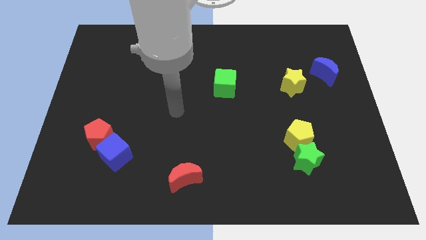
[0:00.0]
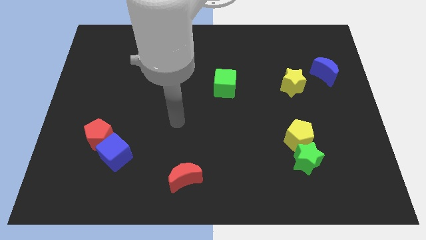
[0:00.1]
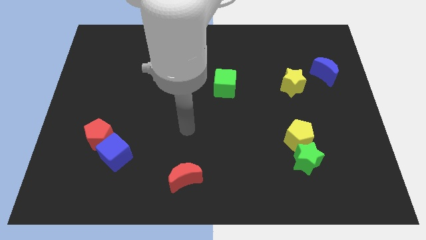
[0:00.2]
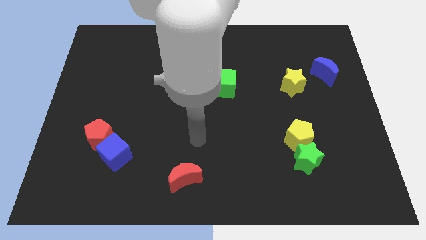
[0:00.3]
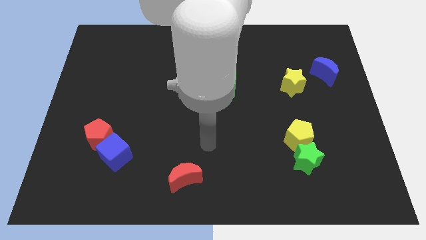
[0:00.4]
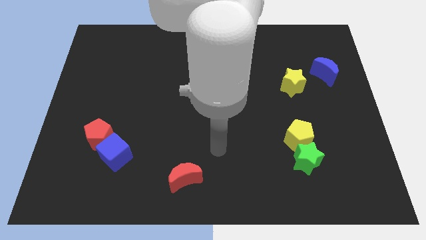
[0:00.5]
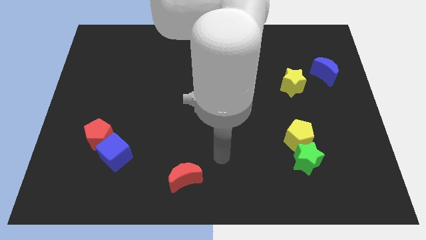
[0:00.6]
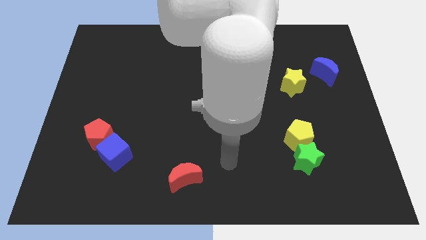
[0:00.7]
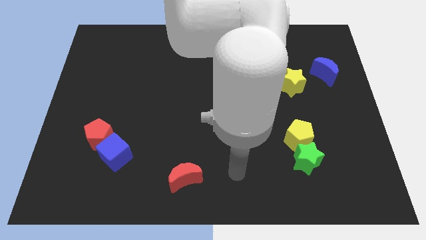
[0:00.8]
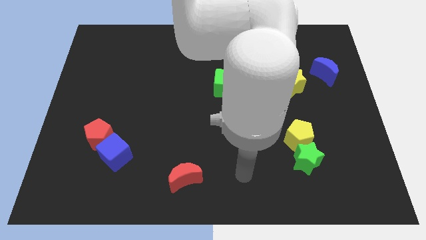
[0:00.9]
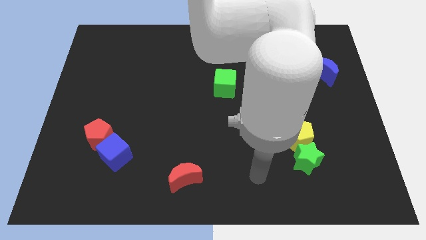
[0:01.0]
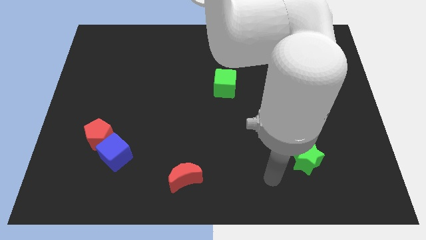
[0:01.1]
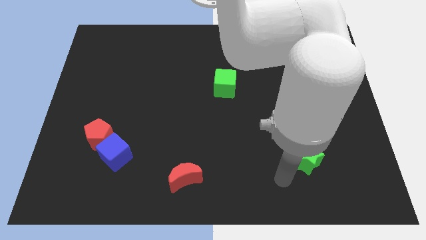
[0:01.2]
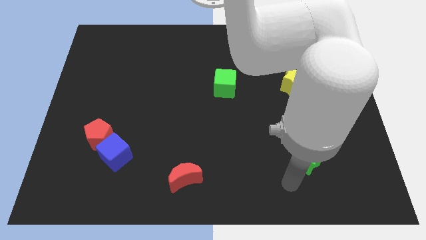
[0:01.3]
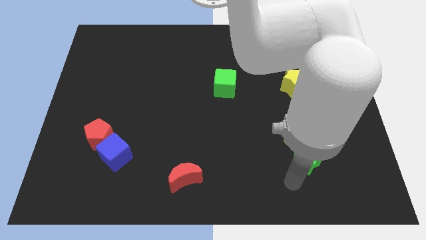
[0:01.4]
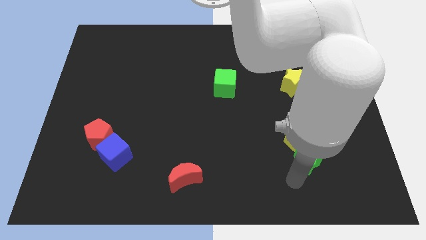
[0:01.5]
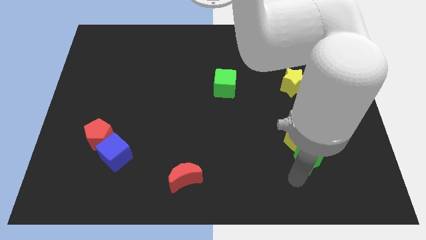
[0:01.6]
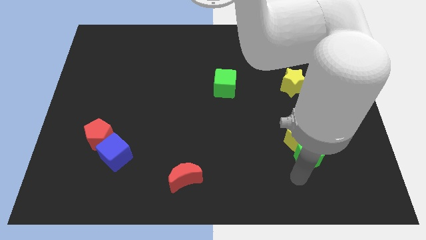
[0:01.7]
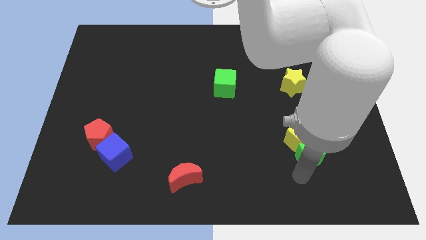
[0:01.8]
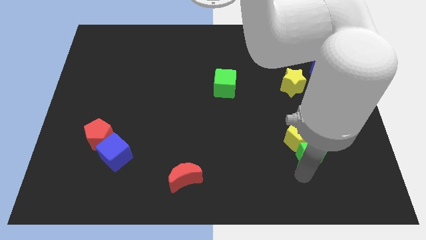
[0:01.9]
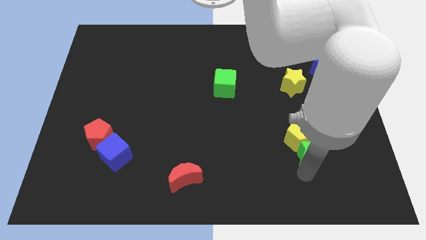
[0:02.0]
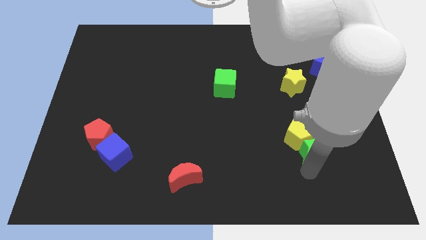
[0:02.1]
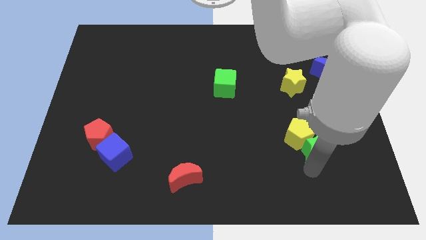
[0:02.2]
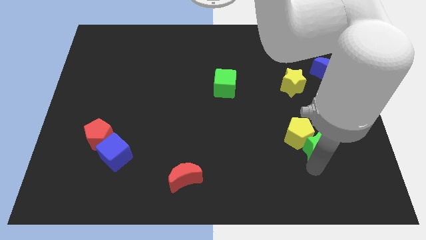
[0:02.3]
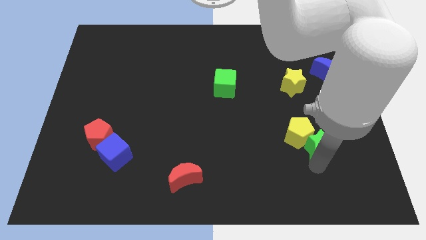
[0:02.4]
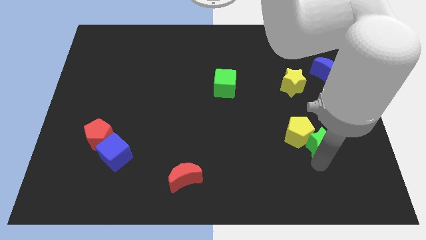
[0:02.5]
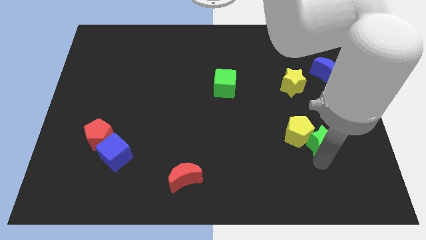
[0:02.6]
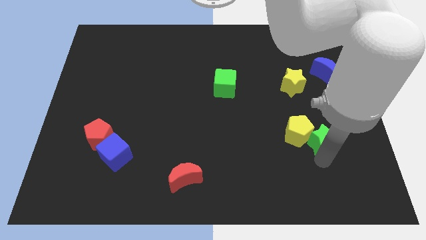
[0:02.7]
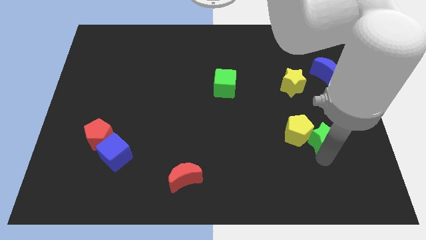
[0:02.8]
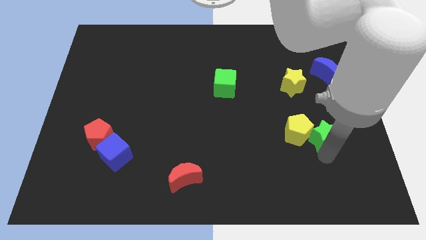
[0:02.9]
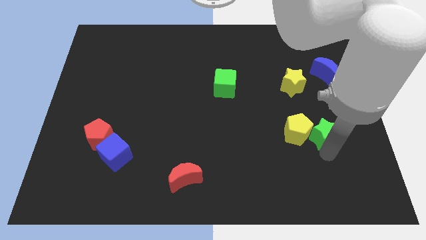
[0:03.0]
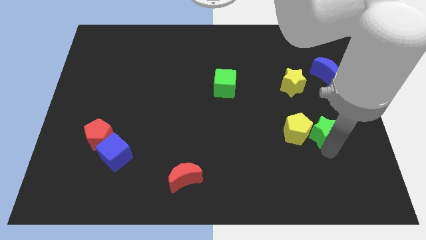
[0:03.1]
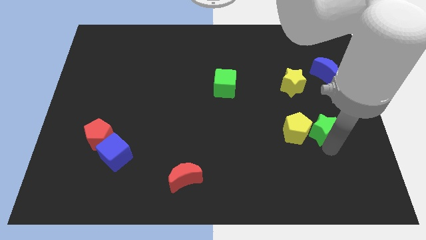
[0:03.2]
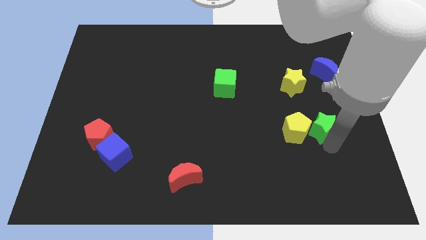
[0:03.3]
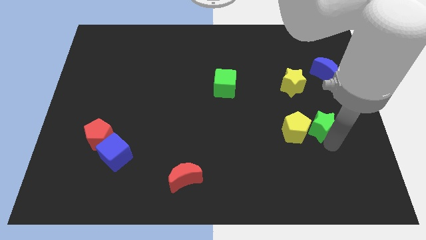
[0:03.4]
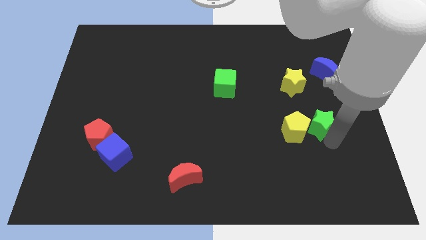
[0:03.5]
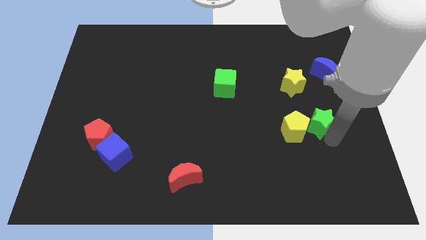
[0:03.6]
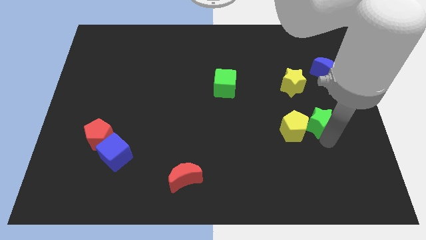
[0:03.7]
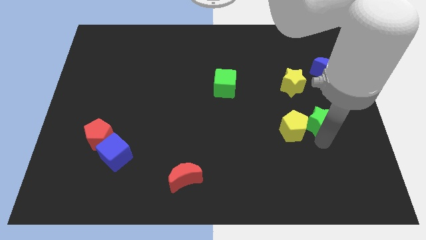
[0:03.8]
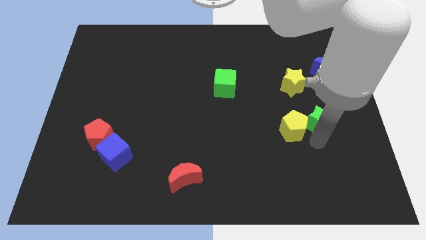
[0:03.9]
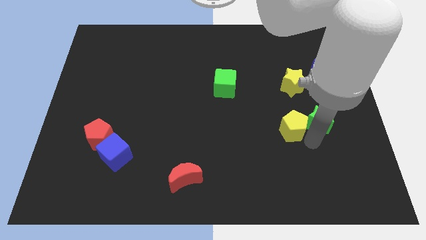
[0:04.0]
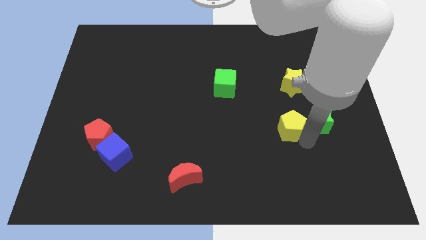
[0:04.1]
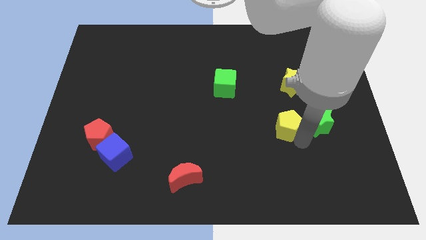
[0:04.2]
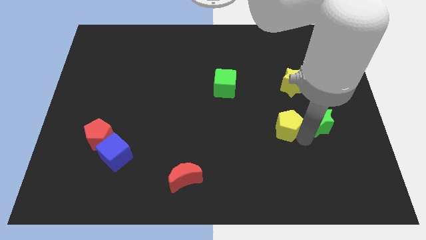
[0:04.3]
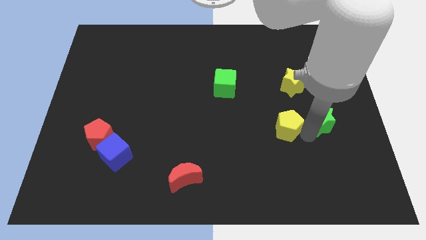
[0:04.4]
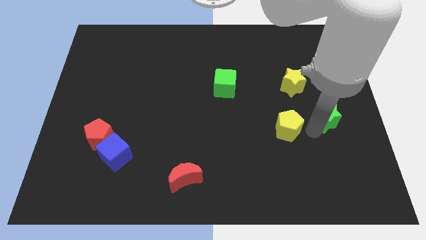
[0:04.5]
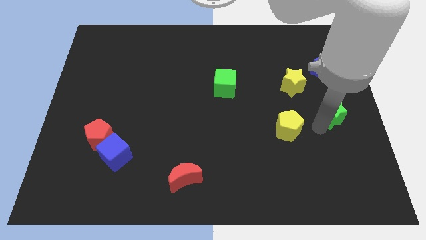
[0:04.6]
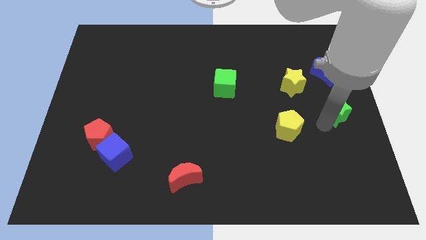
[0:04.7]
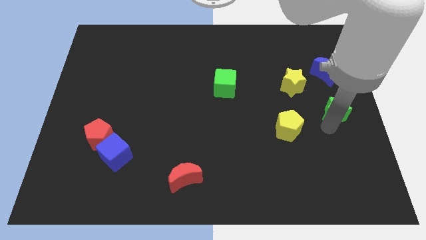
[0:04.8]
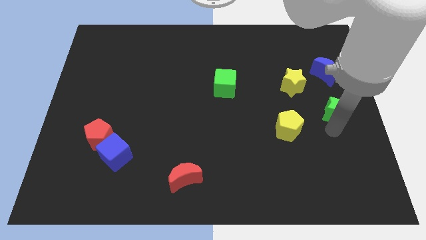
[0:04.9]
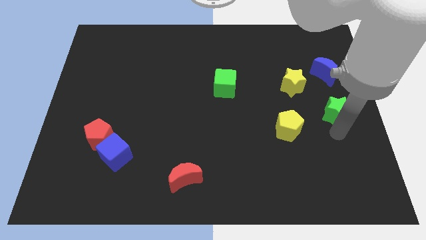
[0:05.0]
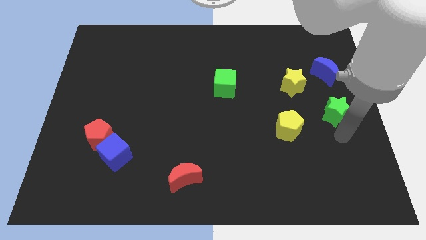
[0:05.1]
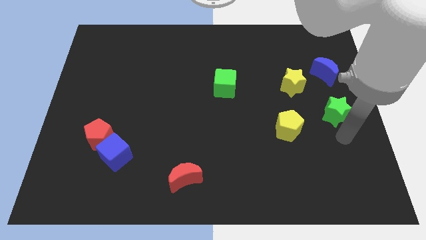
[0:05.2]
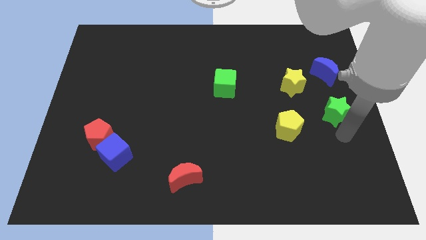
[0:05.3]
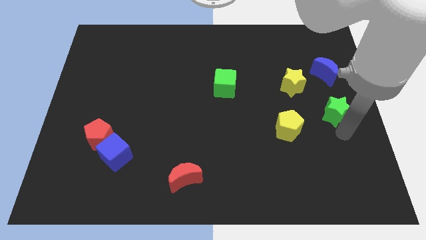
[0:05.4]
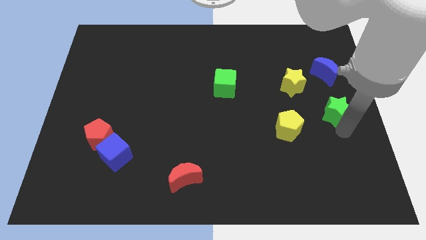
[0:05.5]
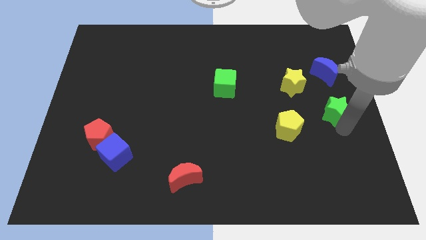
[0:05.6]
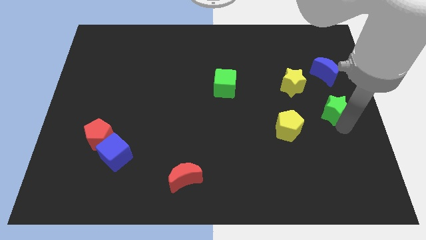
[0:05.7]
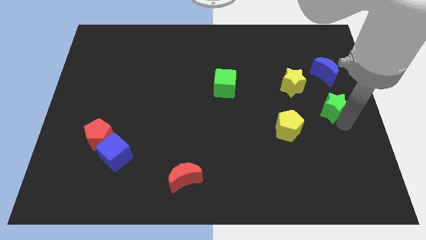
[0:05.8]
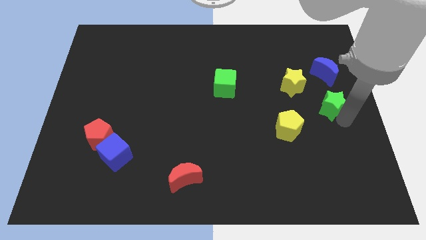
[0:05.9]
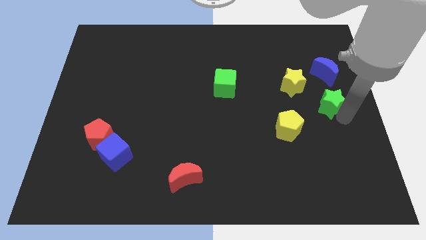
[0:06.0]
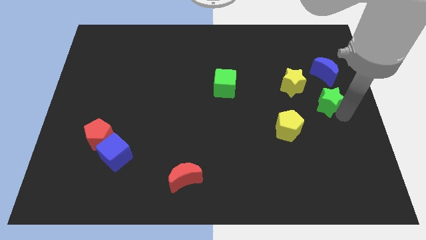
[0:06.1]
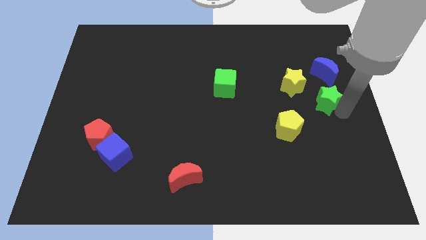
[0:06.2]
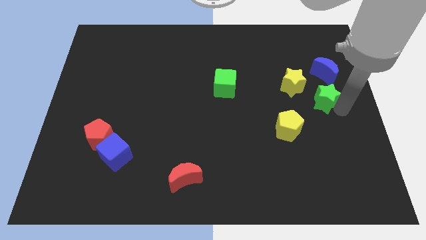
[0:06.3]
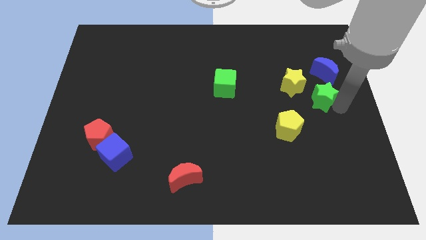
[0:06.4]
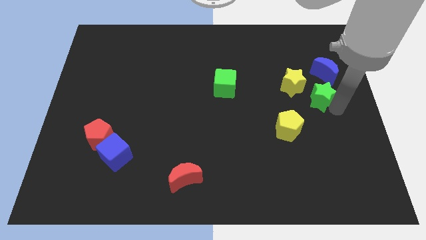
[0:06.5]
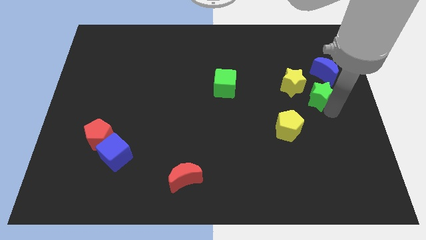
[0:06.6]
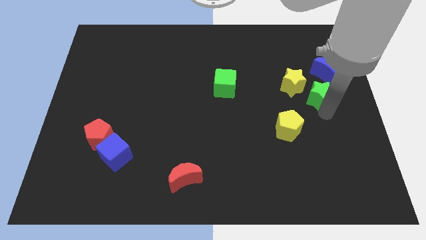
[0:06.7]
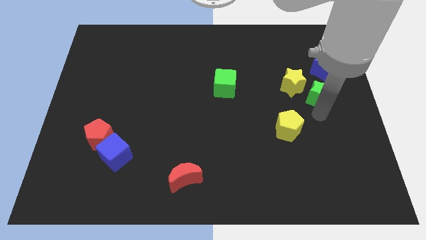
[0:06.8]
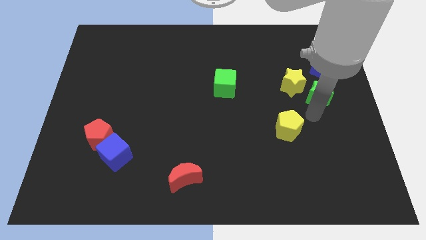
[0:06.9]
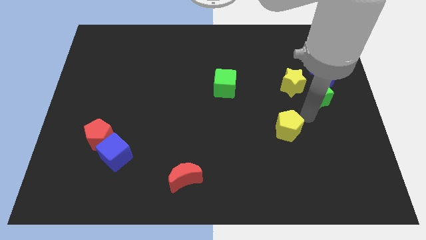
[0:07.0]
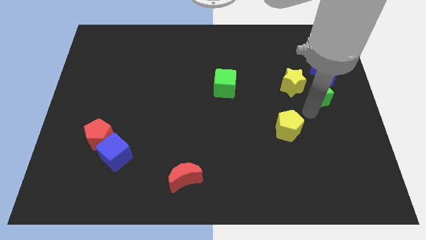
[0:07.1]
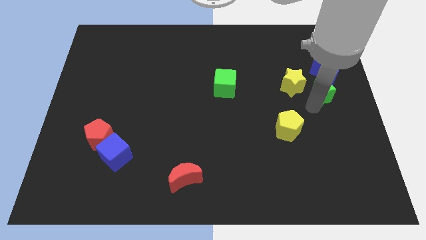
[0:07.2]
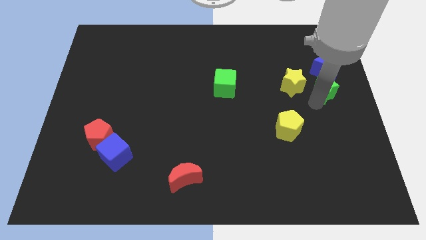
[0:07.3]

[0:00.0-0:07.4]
move the green star towards the blue moon
